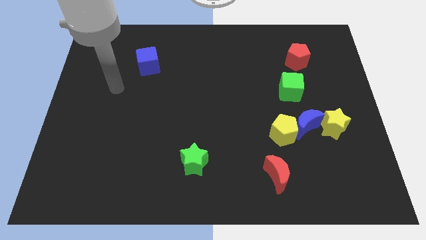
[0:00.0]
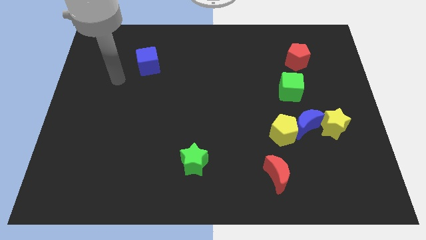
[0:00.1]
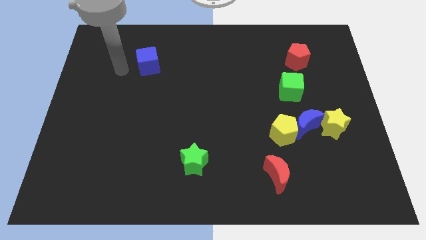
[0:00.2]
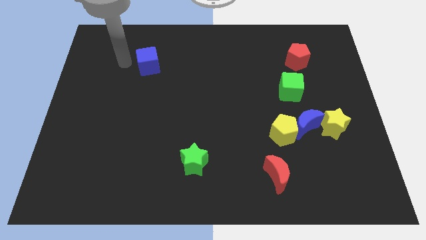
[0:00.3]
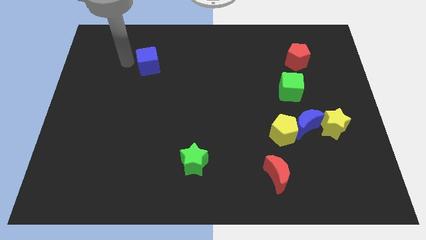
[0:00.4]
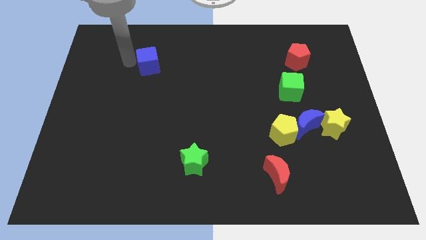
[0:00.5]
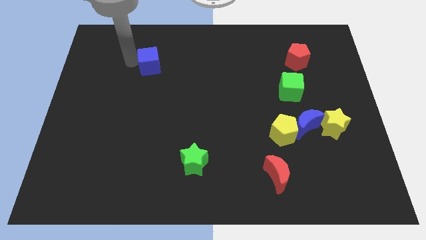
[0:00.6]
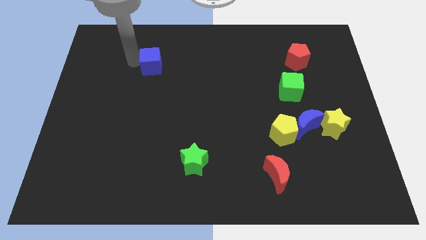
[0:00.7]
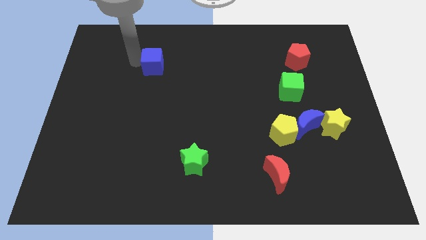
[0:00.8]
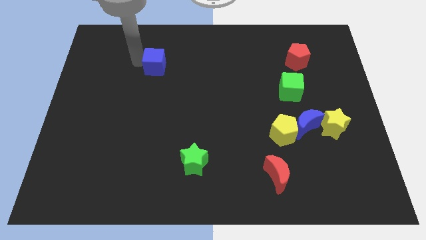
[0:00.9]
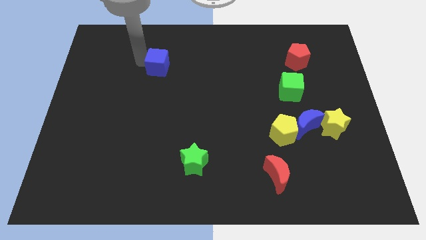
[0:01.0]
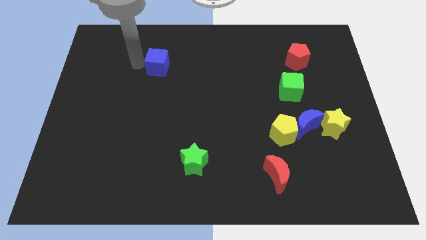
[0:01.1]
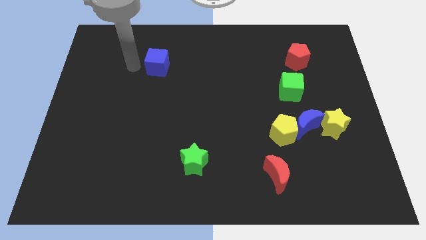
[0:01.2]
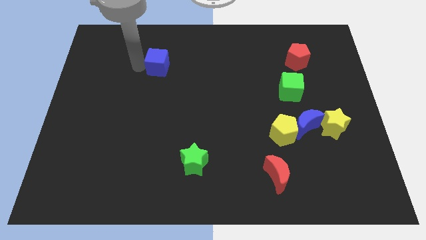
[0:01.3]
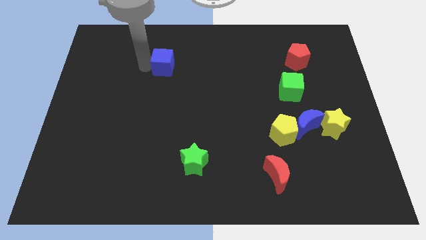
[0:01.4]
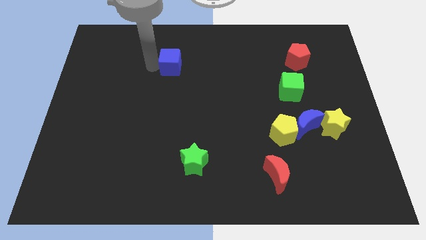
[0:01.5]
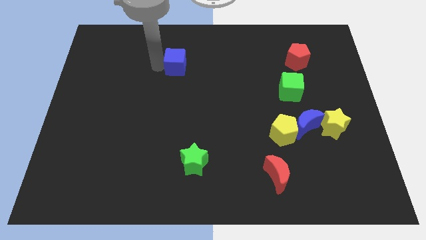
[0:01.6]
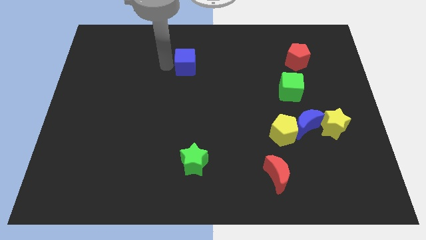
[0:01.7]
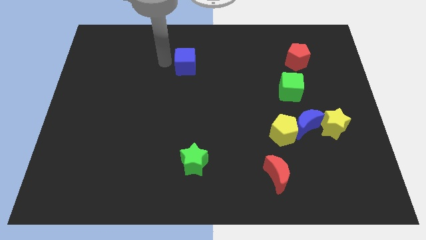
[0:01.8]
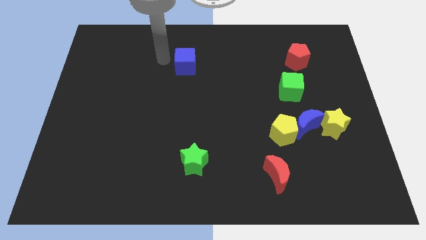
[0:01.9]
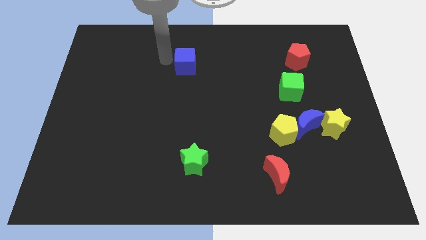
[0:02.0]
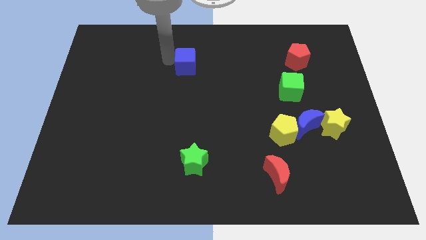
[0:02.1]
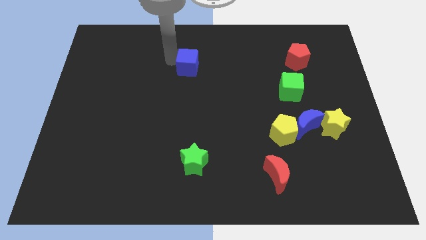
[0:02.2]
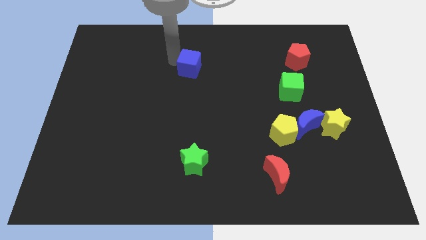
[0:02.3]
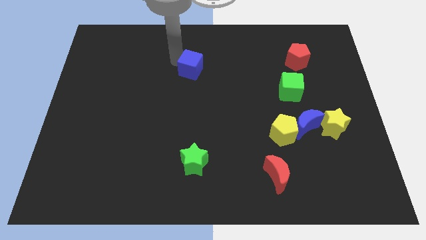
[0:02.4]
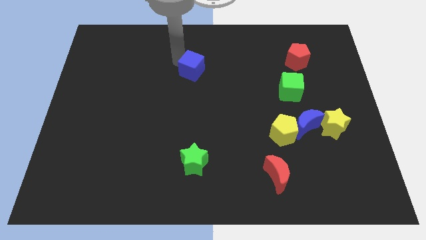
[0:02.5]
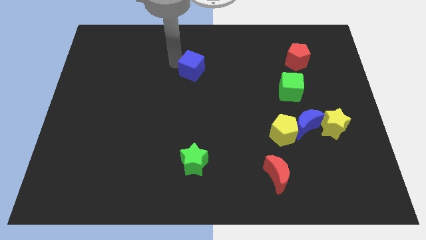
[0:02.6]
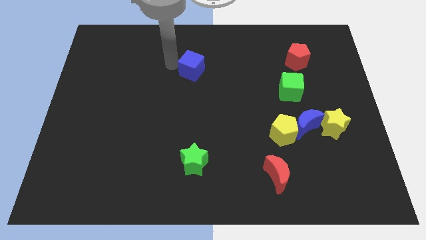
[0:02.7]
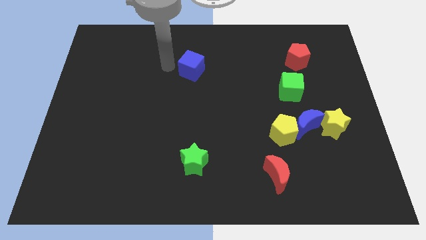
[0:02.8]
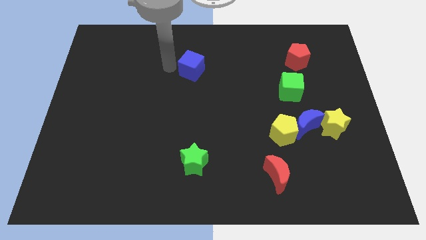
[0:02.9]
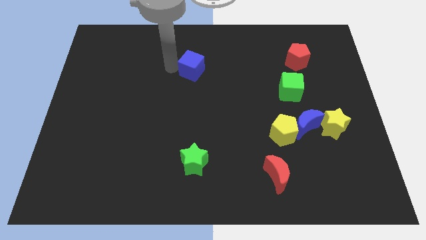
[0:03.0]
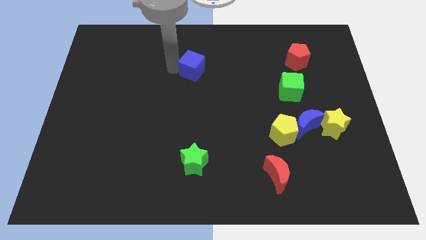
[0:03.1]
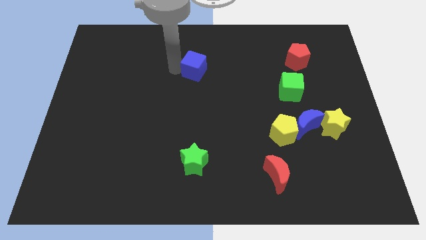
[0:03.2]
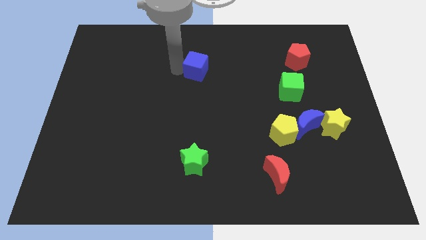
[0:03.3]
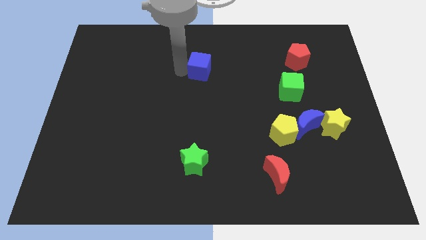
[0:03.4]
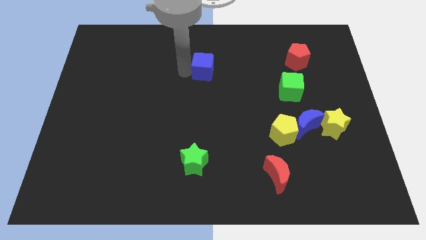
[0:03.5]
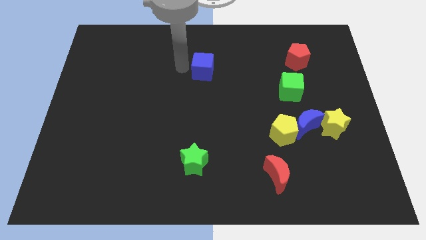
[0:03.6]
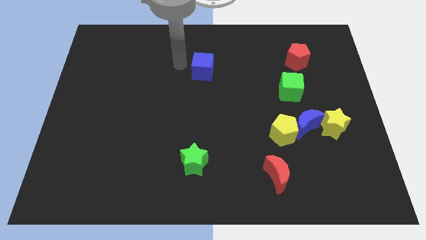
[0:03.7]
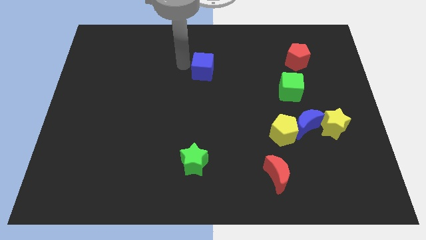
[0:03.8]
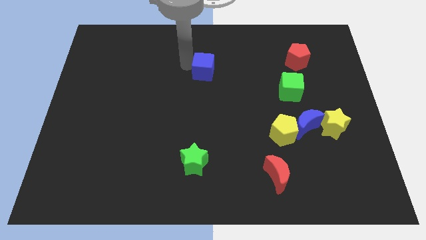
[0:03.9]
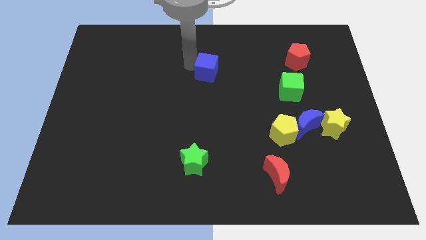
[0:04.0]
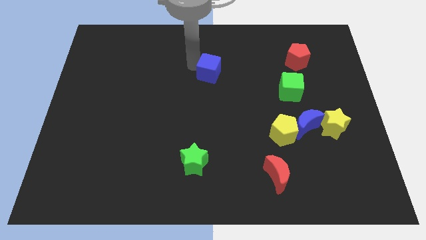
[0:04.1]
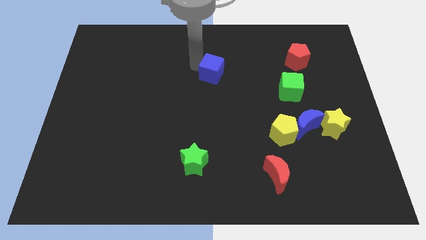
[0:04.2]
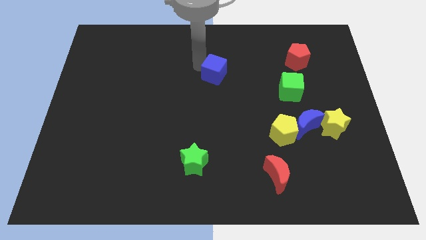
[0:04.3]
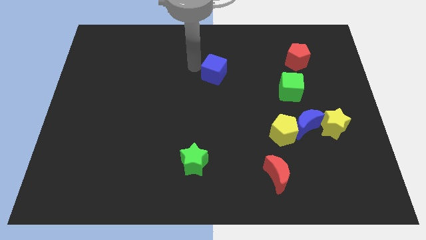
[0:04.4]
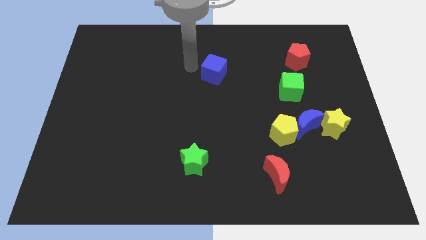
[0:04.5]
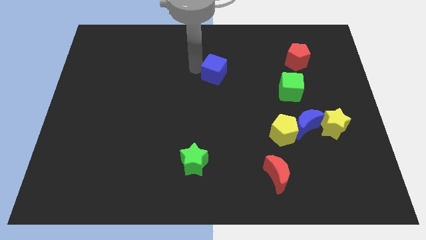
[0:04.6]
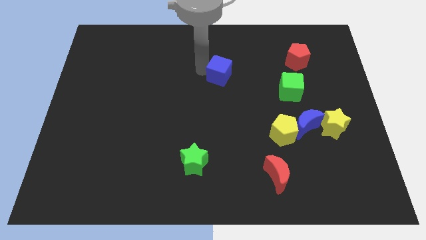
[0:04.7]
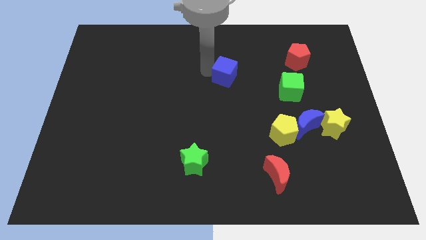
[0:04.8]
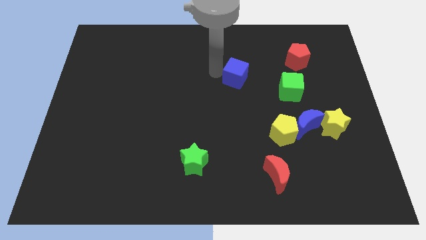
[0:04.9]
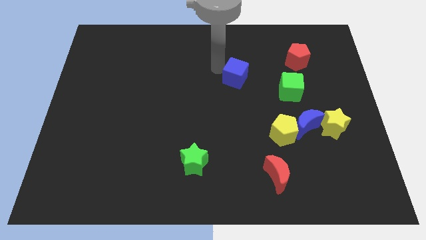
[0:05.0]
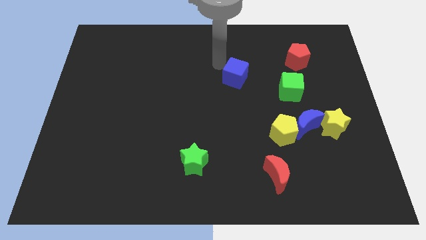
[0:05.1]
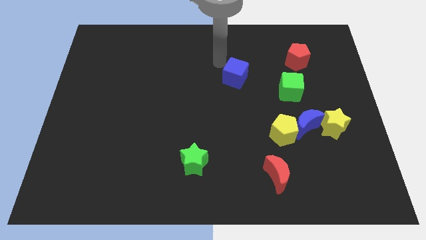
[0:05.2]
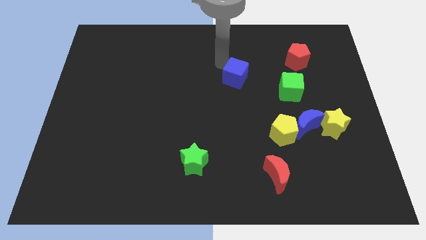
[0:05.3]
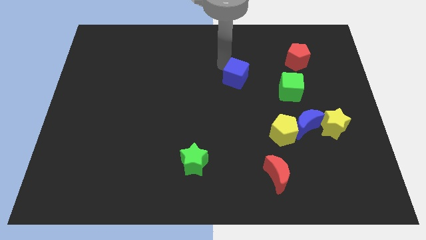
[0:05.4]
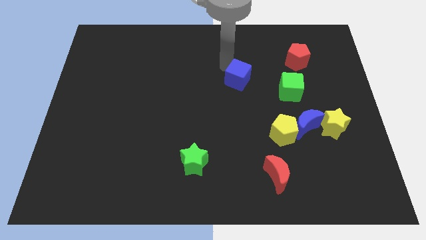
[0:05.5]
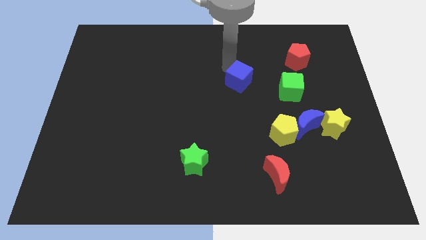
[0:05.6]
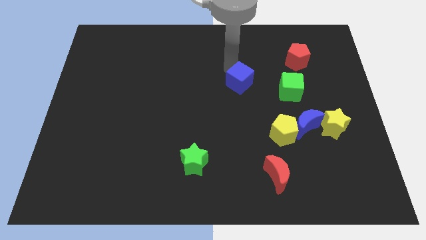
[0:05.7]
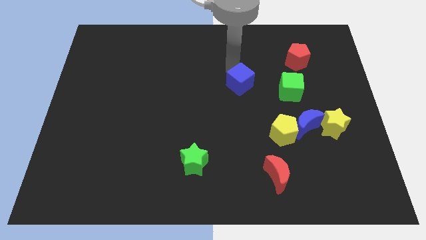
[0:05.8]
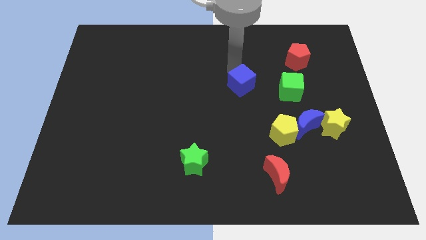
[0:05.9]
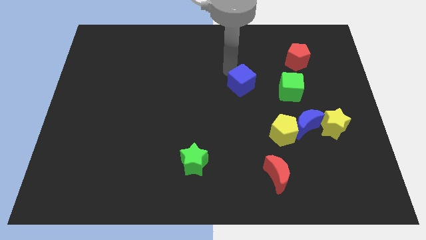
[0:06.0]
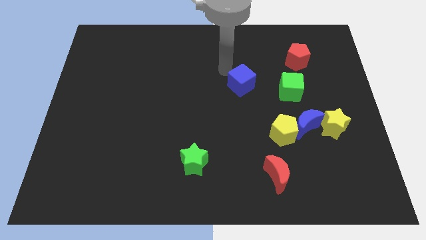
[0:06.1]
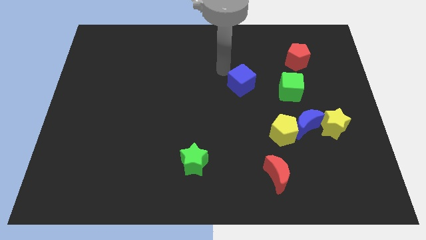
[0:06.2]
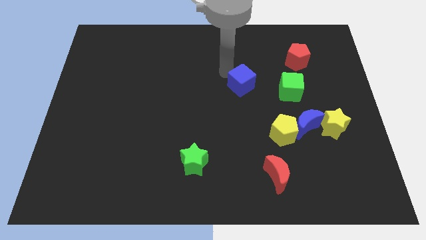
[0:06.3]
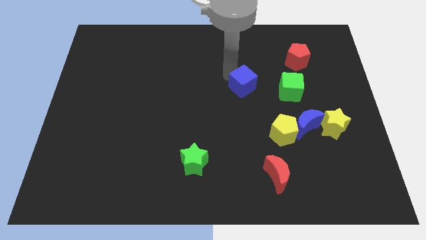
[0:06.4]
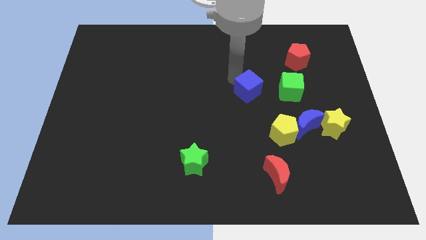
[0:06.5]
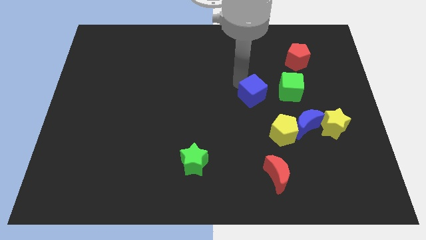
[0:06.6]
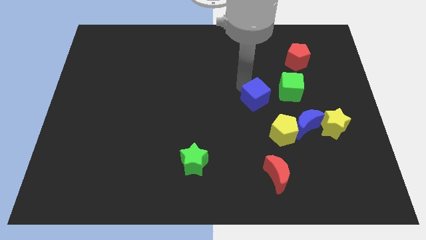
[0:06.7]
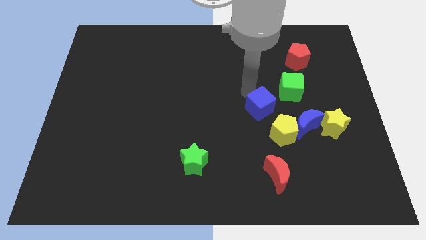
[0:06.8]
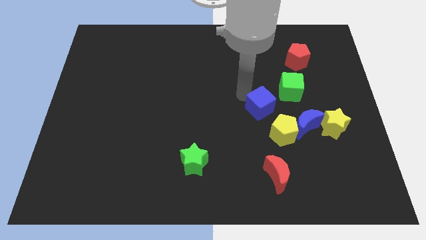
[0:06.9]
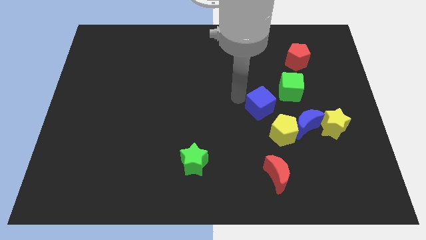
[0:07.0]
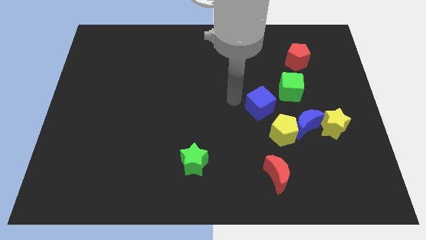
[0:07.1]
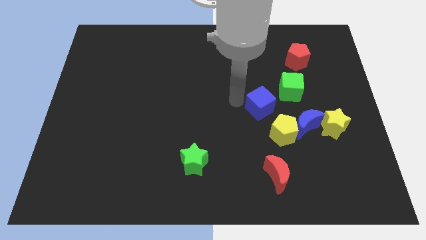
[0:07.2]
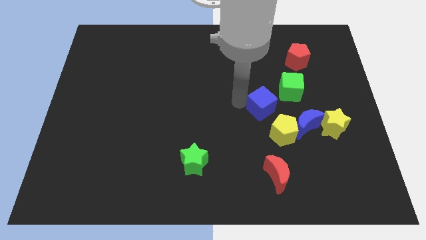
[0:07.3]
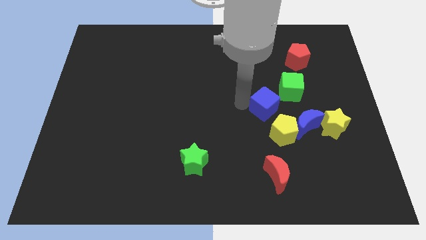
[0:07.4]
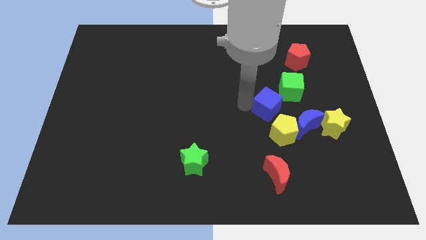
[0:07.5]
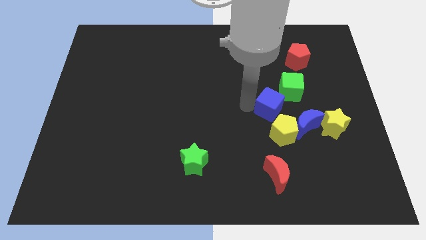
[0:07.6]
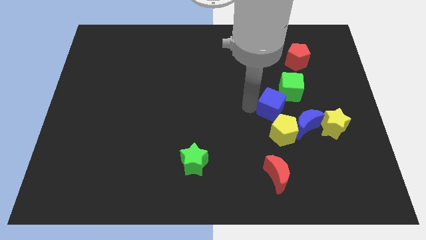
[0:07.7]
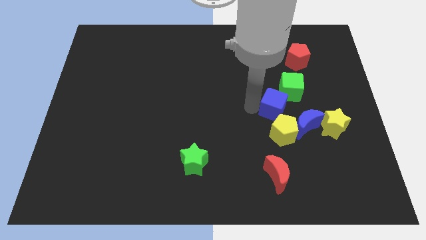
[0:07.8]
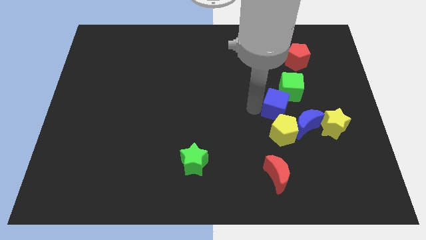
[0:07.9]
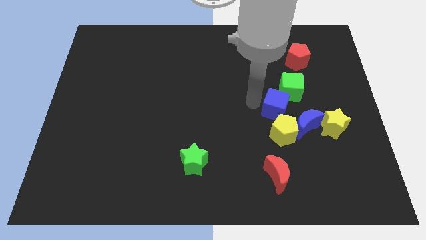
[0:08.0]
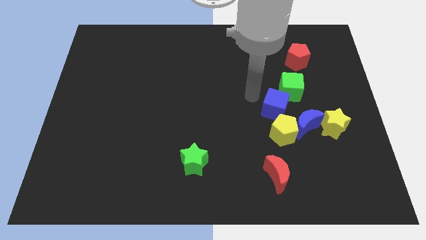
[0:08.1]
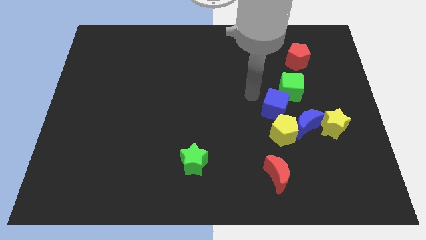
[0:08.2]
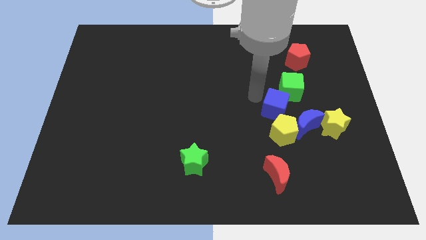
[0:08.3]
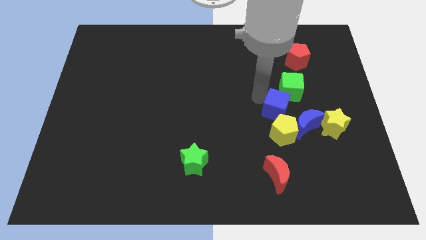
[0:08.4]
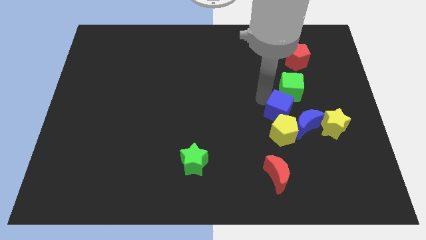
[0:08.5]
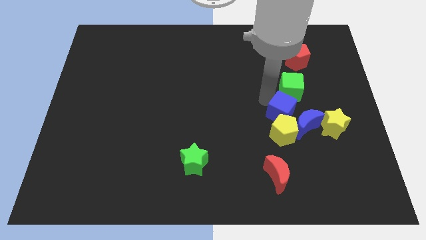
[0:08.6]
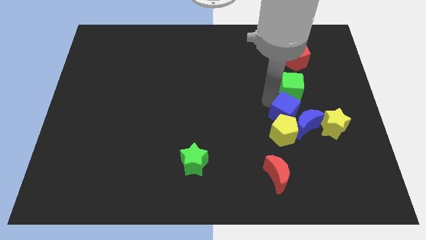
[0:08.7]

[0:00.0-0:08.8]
slide the blue cube close to the blue moon
